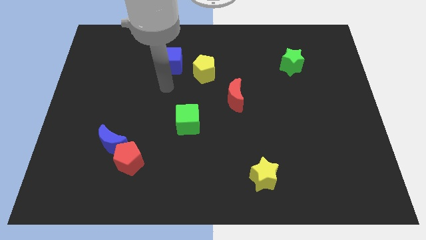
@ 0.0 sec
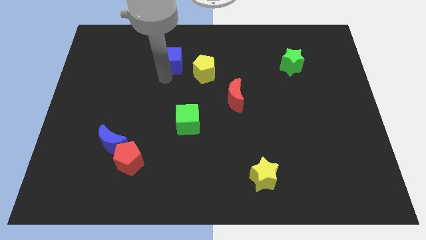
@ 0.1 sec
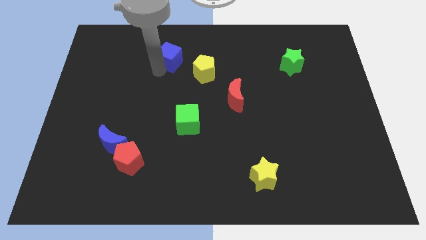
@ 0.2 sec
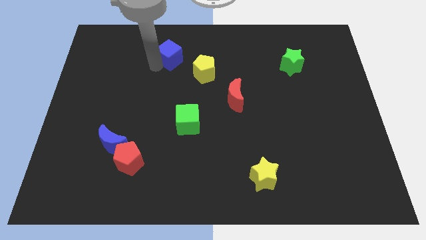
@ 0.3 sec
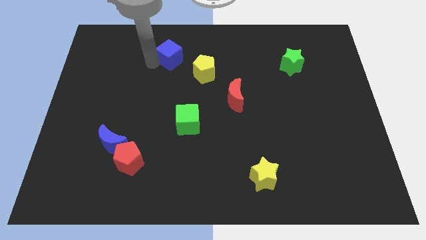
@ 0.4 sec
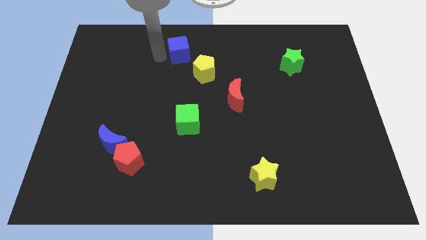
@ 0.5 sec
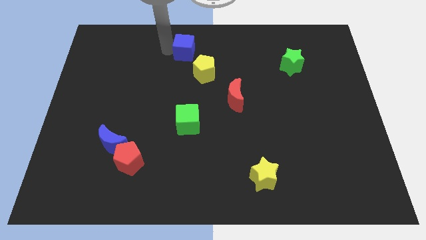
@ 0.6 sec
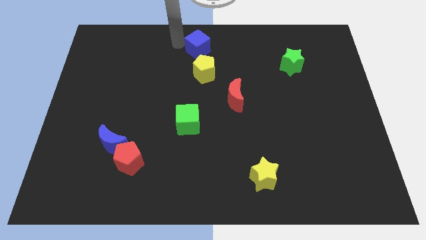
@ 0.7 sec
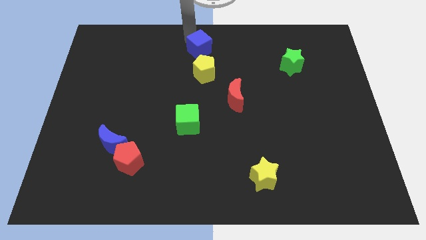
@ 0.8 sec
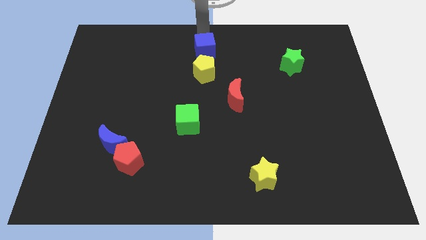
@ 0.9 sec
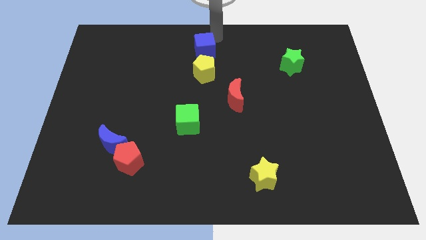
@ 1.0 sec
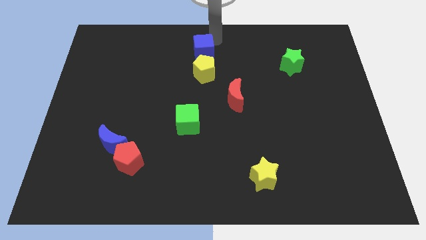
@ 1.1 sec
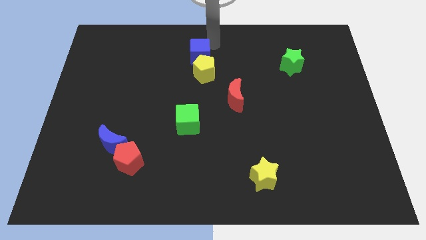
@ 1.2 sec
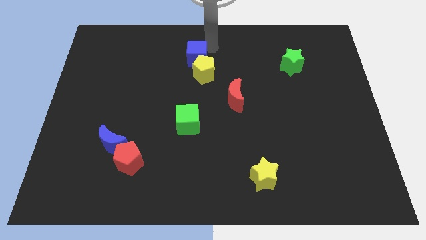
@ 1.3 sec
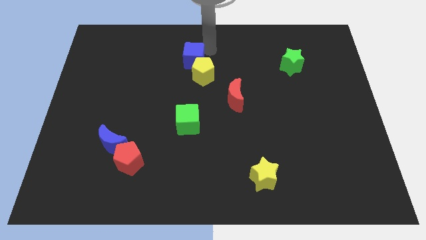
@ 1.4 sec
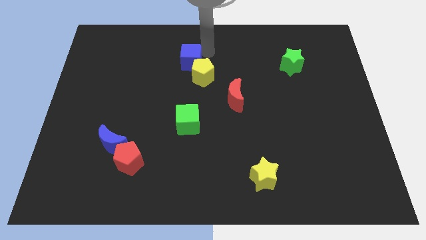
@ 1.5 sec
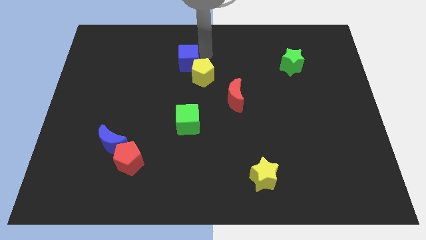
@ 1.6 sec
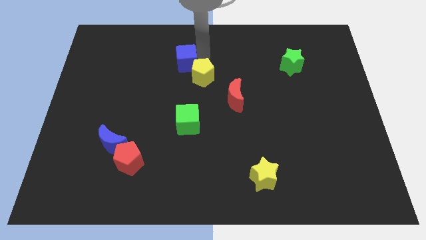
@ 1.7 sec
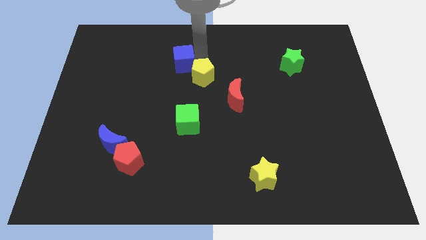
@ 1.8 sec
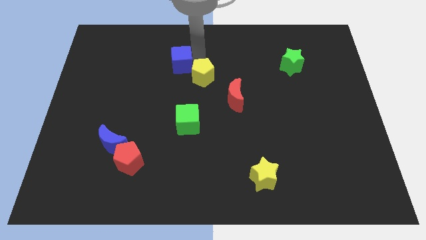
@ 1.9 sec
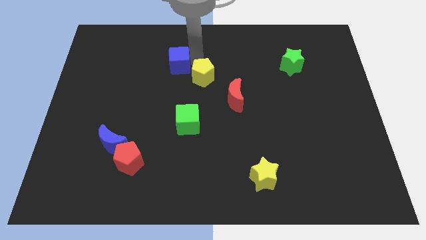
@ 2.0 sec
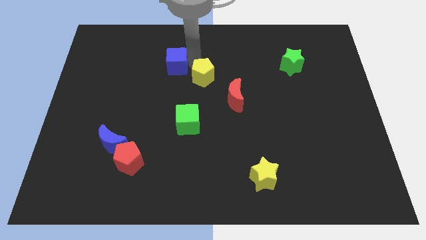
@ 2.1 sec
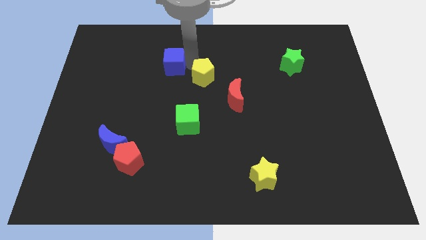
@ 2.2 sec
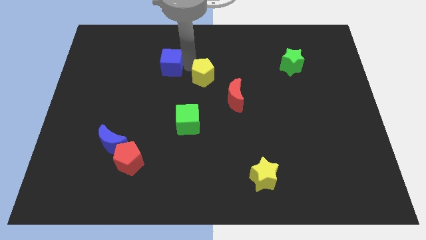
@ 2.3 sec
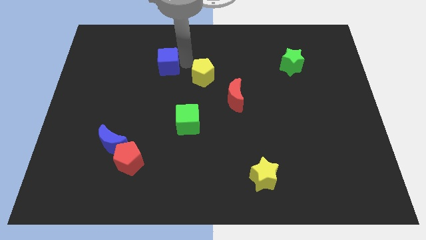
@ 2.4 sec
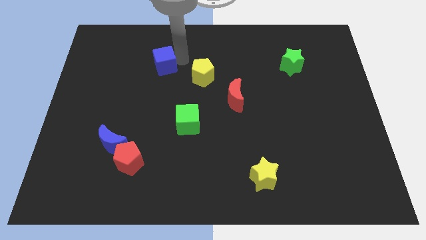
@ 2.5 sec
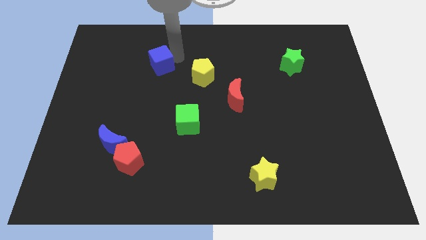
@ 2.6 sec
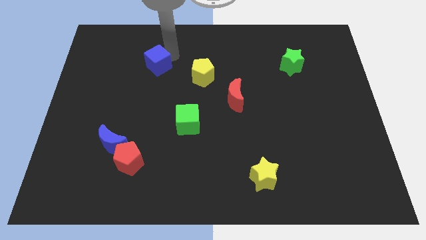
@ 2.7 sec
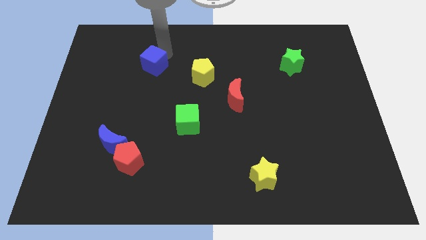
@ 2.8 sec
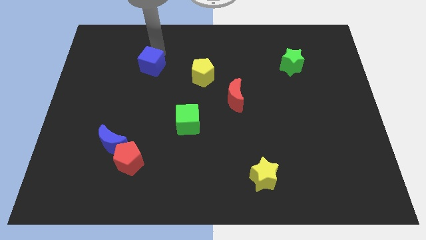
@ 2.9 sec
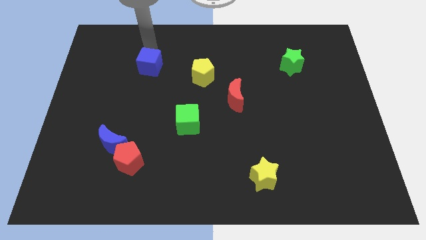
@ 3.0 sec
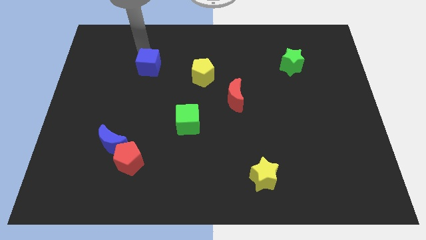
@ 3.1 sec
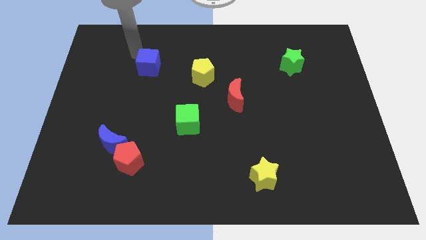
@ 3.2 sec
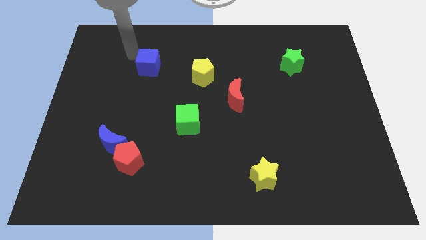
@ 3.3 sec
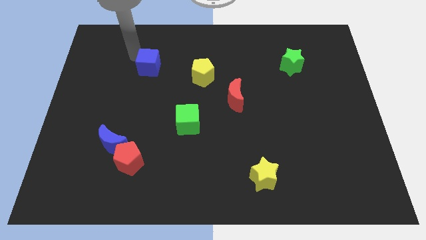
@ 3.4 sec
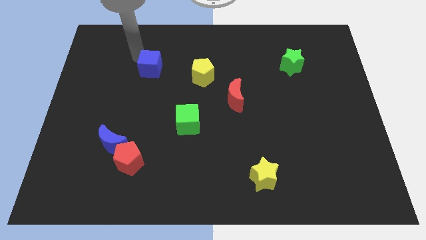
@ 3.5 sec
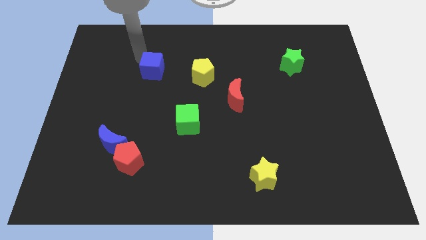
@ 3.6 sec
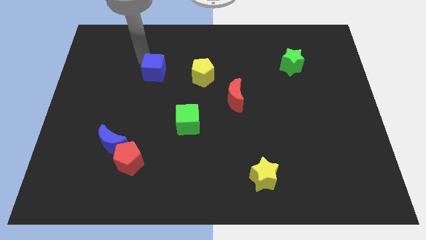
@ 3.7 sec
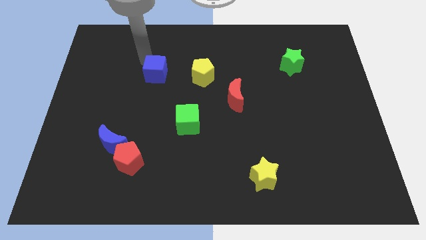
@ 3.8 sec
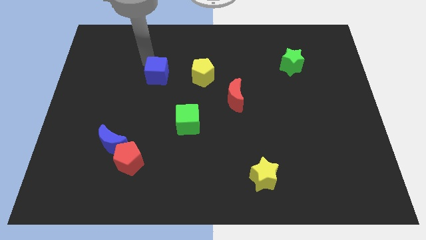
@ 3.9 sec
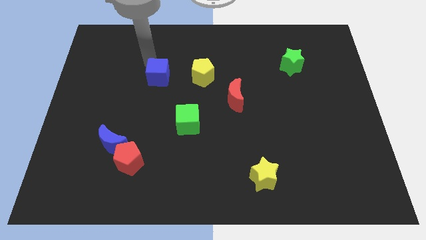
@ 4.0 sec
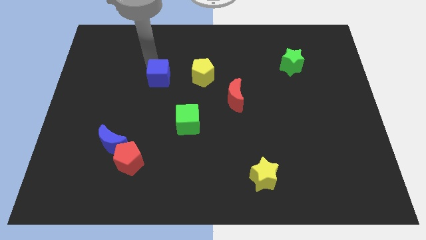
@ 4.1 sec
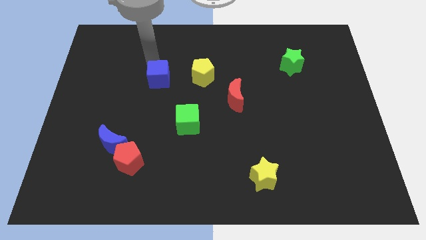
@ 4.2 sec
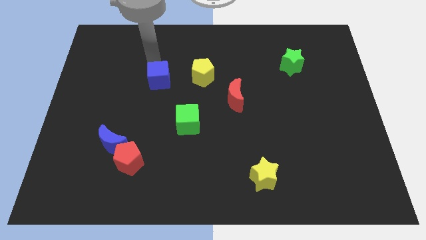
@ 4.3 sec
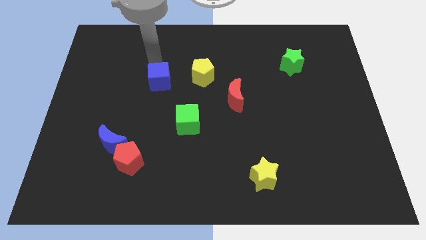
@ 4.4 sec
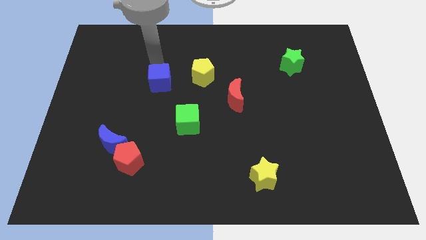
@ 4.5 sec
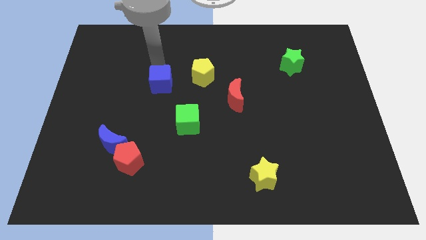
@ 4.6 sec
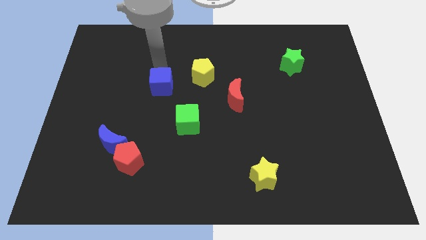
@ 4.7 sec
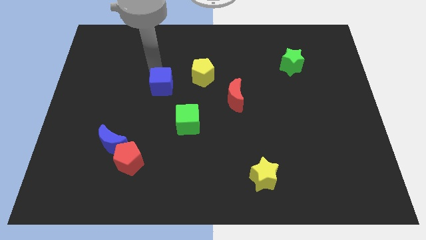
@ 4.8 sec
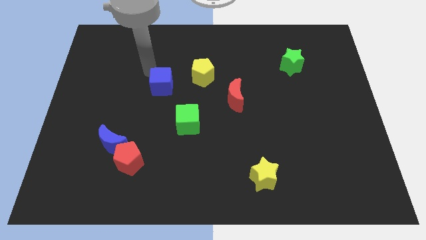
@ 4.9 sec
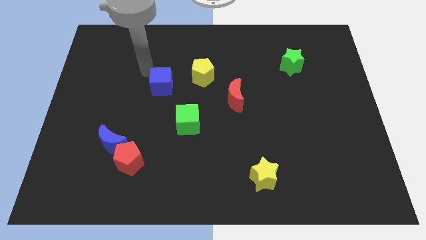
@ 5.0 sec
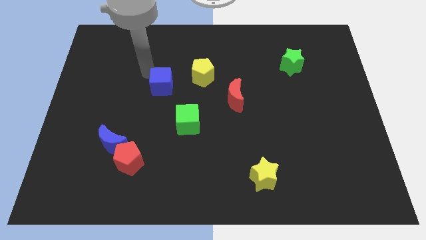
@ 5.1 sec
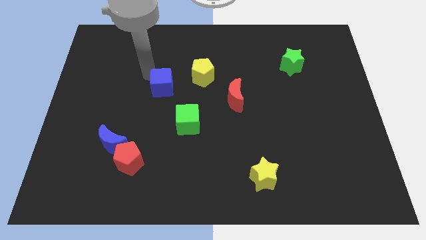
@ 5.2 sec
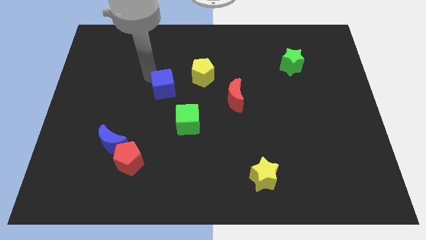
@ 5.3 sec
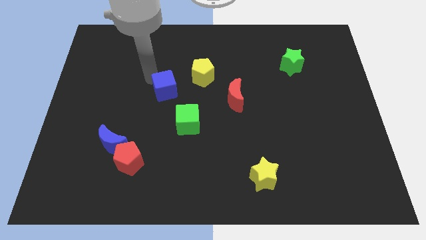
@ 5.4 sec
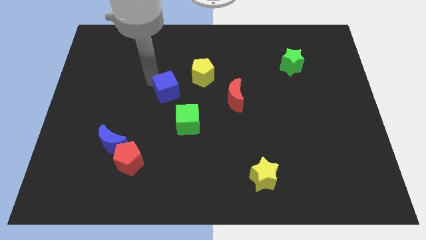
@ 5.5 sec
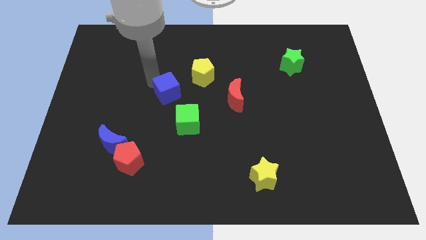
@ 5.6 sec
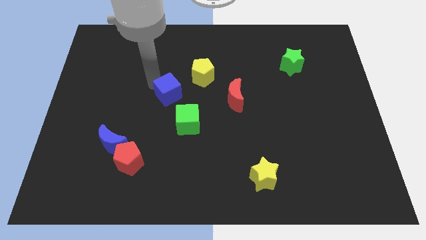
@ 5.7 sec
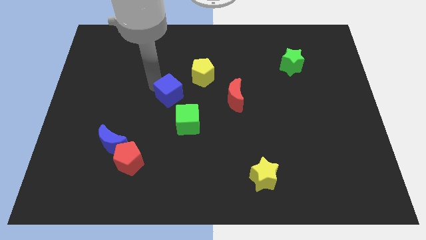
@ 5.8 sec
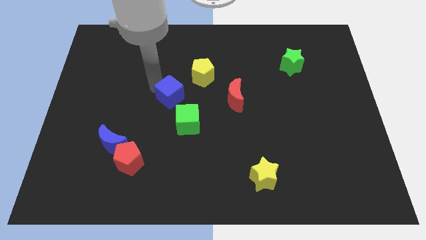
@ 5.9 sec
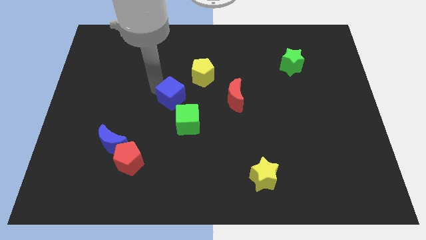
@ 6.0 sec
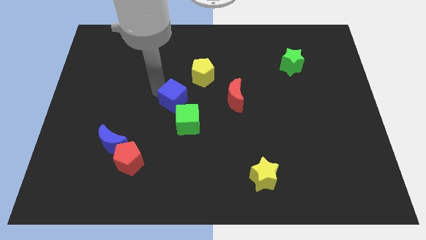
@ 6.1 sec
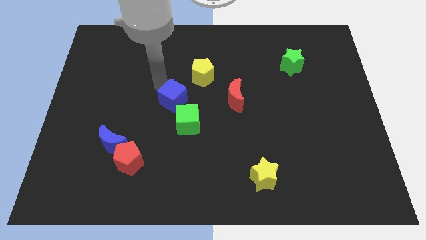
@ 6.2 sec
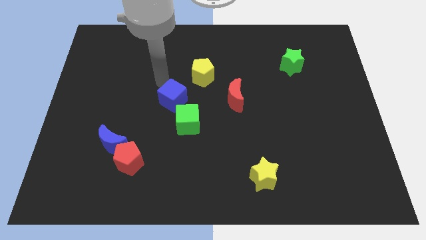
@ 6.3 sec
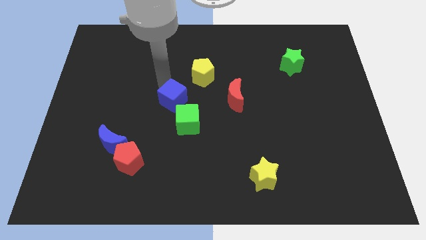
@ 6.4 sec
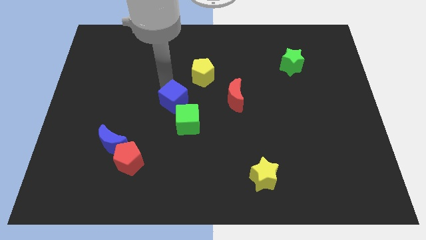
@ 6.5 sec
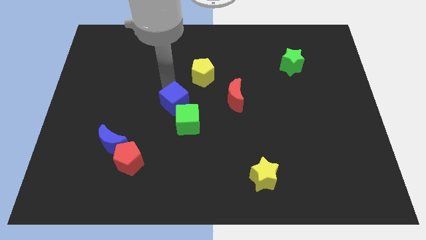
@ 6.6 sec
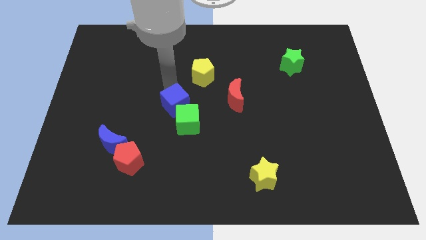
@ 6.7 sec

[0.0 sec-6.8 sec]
slide the blue cube towards the green cube

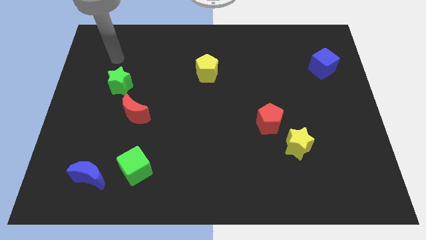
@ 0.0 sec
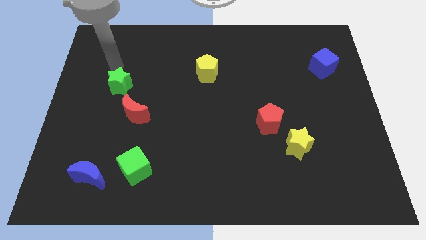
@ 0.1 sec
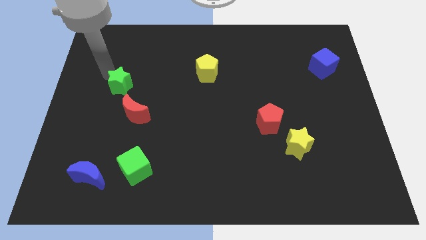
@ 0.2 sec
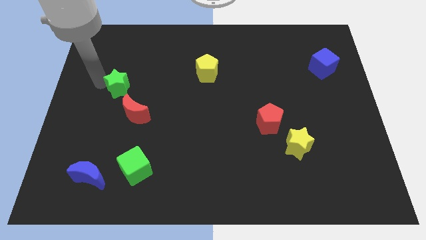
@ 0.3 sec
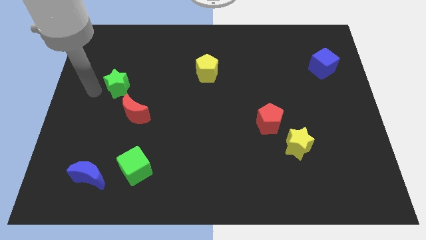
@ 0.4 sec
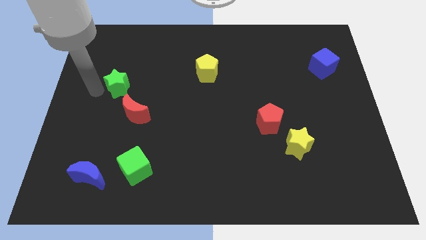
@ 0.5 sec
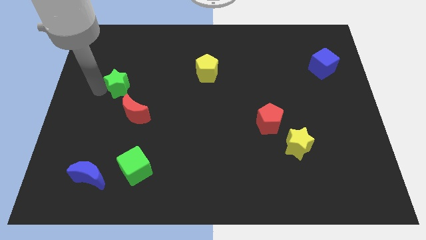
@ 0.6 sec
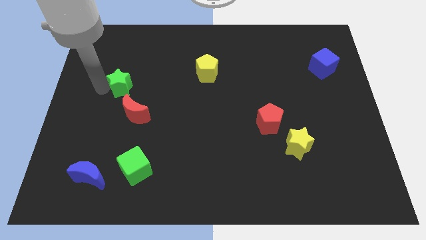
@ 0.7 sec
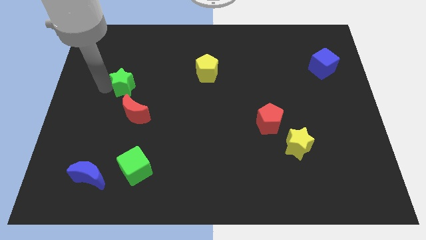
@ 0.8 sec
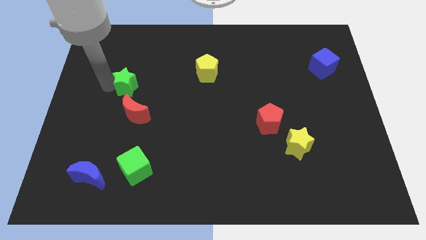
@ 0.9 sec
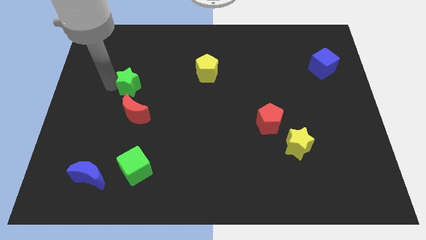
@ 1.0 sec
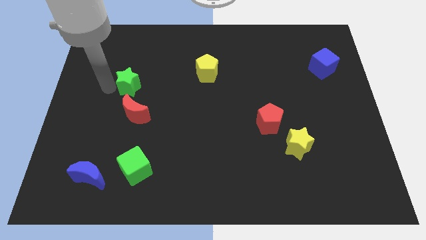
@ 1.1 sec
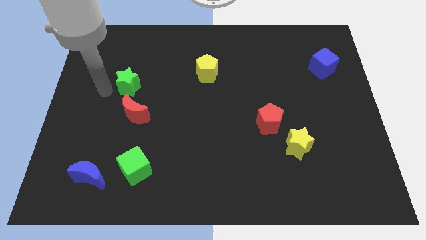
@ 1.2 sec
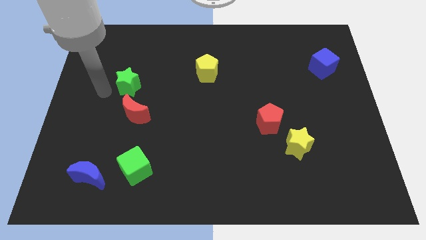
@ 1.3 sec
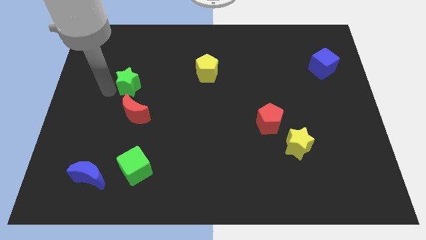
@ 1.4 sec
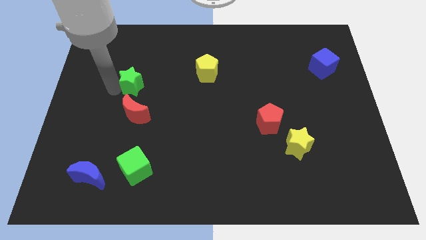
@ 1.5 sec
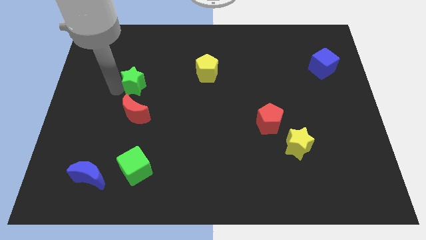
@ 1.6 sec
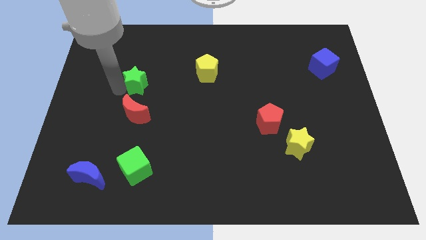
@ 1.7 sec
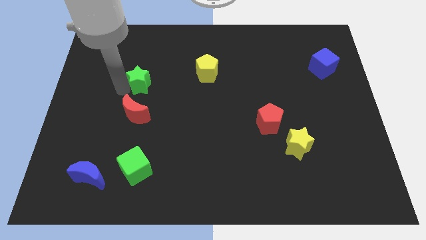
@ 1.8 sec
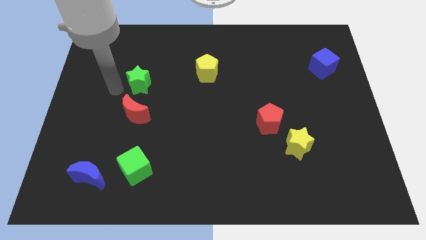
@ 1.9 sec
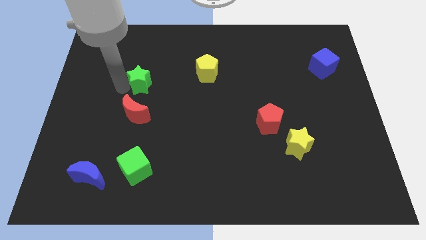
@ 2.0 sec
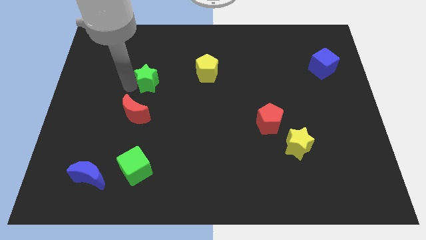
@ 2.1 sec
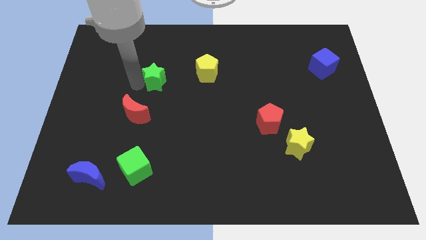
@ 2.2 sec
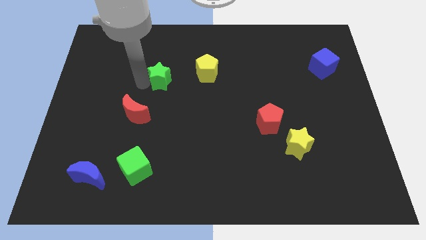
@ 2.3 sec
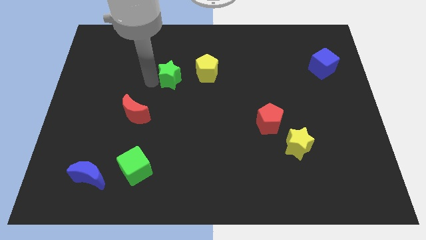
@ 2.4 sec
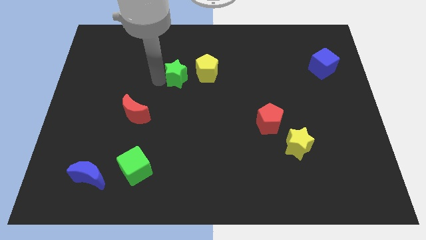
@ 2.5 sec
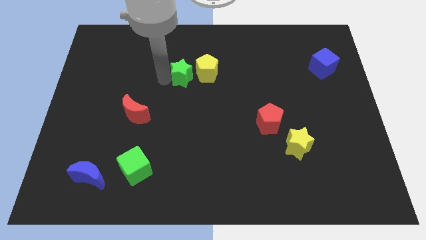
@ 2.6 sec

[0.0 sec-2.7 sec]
push the green star to the yellow pentagon
